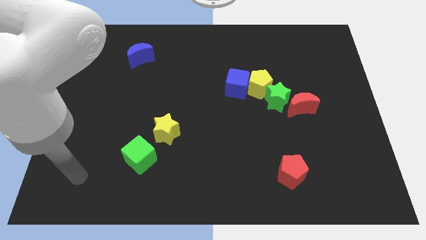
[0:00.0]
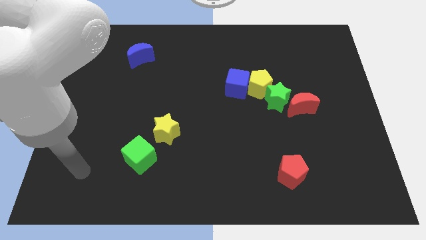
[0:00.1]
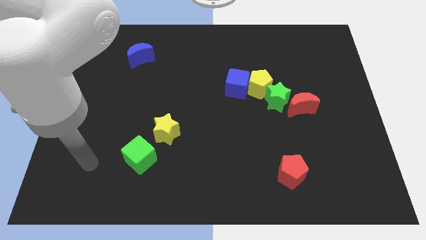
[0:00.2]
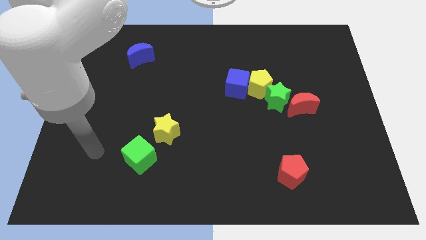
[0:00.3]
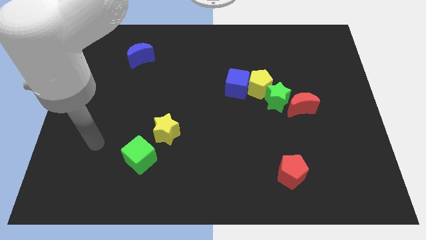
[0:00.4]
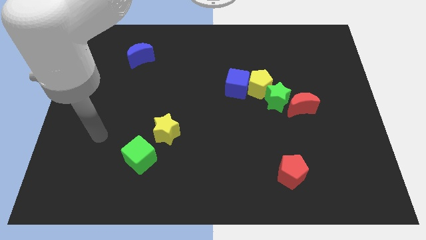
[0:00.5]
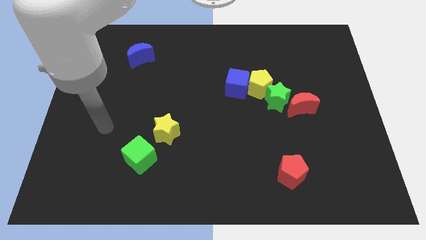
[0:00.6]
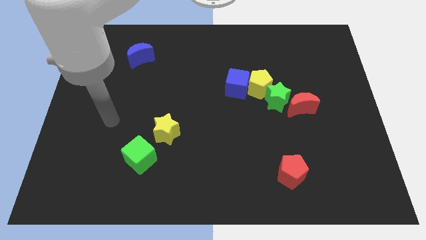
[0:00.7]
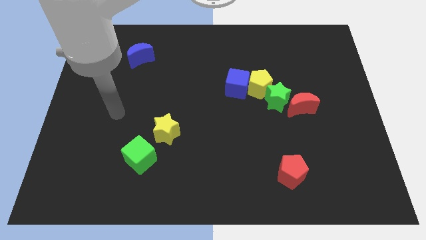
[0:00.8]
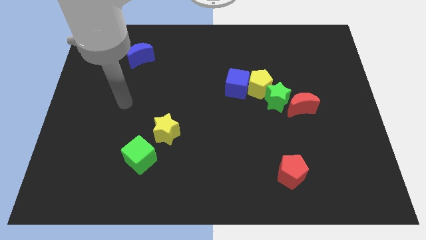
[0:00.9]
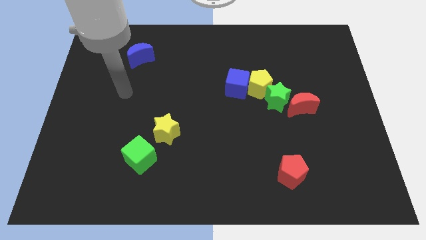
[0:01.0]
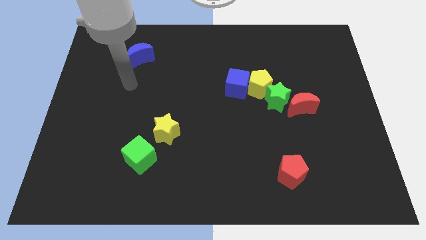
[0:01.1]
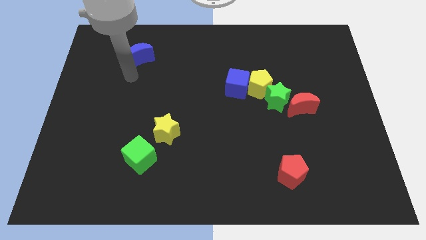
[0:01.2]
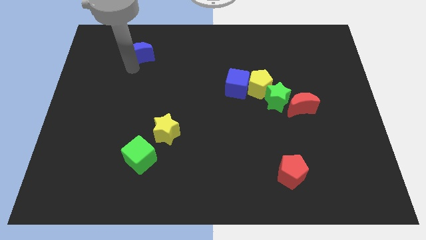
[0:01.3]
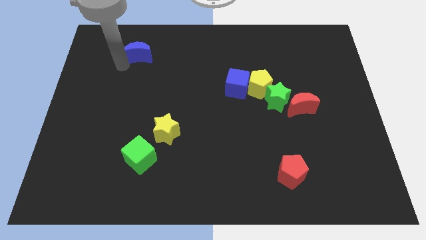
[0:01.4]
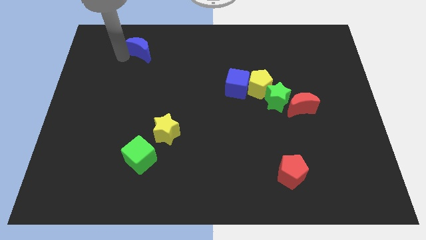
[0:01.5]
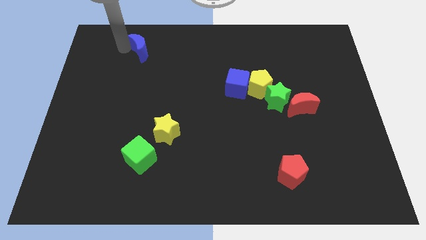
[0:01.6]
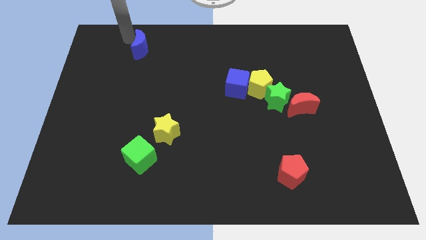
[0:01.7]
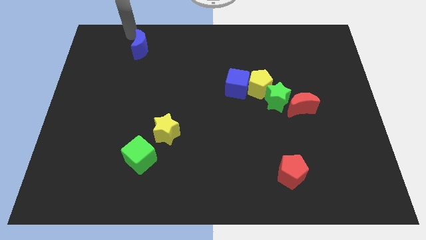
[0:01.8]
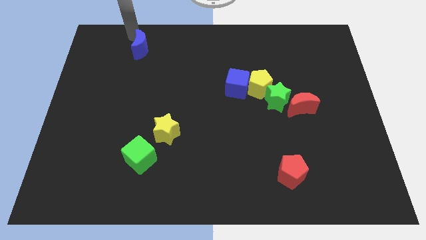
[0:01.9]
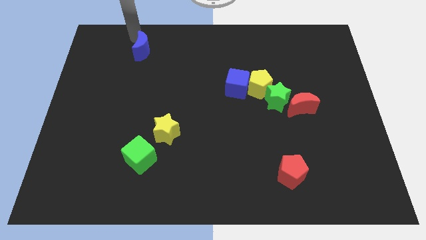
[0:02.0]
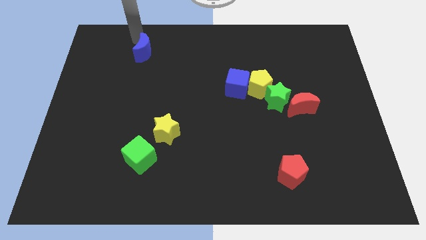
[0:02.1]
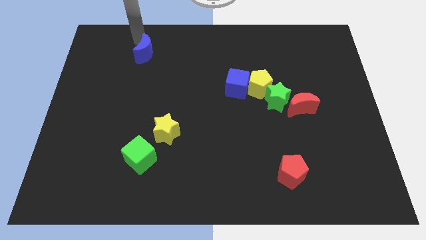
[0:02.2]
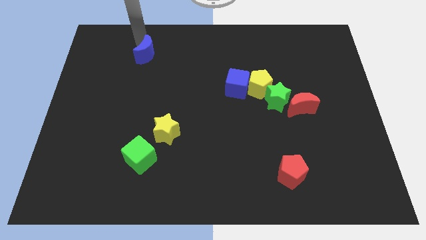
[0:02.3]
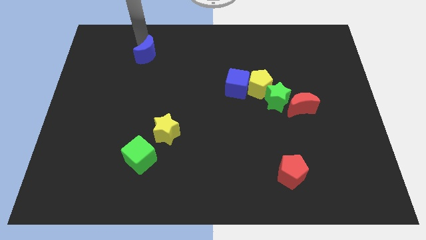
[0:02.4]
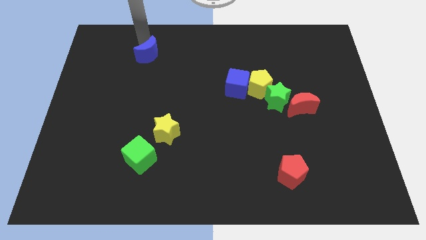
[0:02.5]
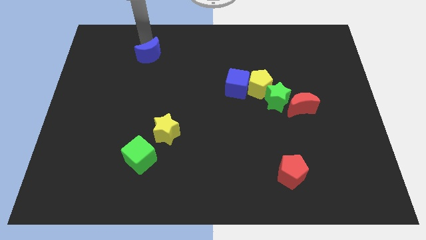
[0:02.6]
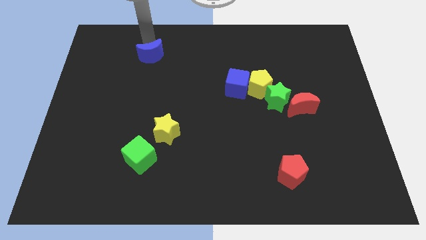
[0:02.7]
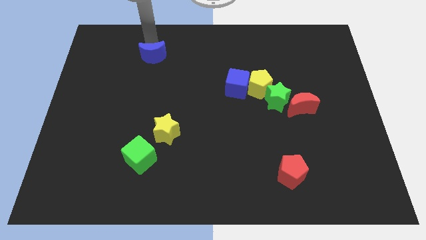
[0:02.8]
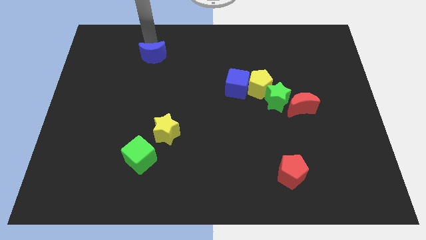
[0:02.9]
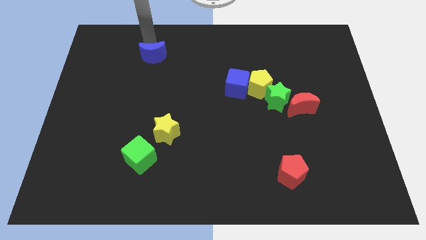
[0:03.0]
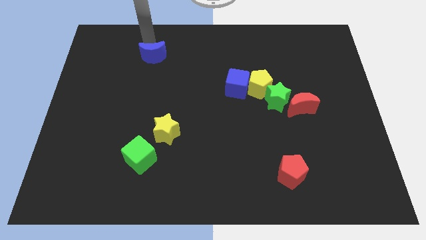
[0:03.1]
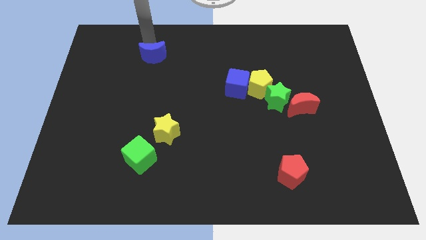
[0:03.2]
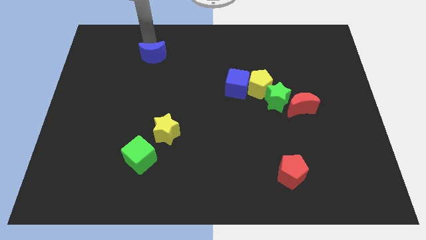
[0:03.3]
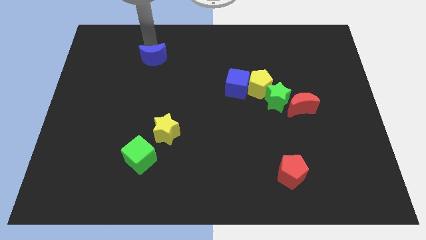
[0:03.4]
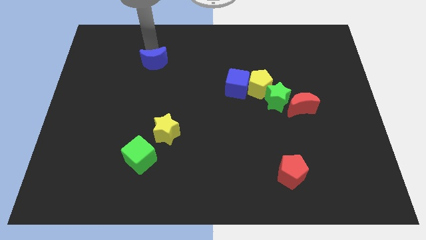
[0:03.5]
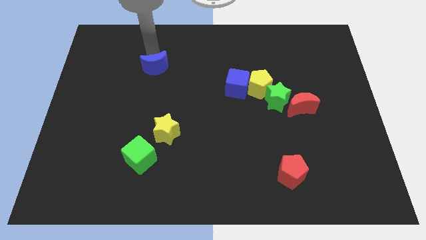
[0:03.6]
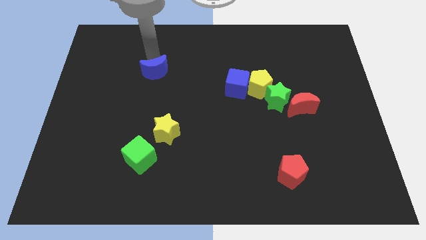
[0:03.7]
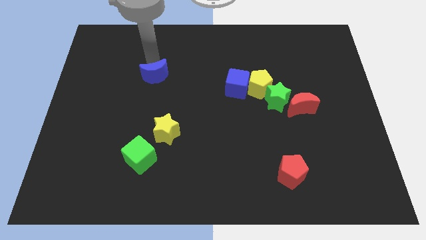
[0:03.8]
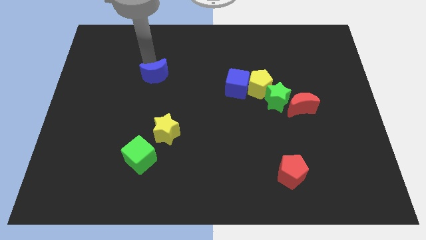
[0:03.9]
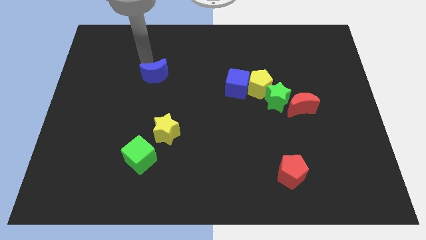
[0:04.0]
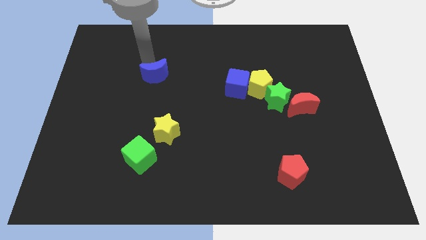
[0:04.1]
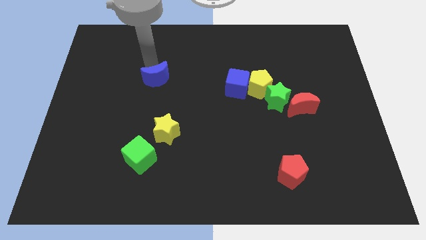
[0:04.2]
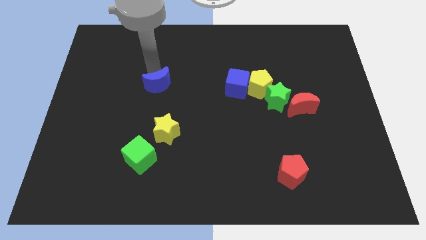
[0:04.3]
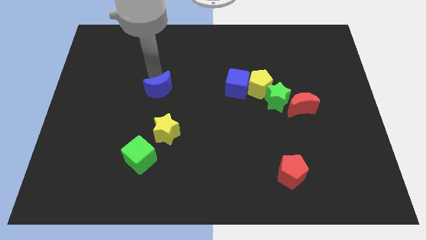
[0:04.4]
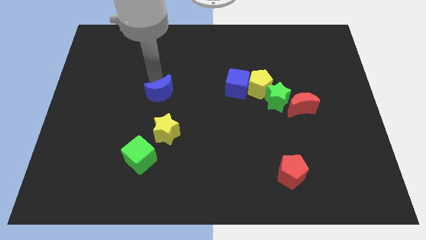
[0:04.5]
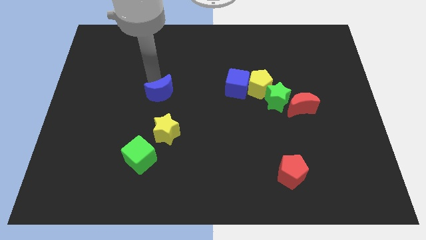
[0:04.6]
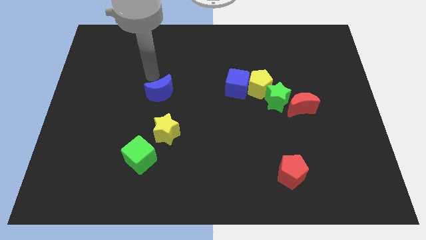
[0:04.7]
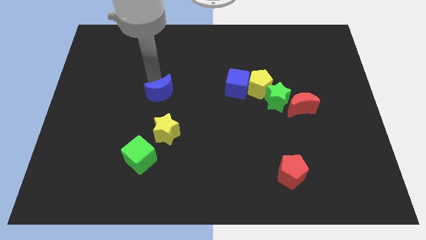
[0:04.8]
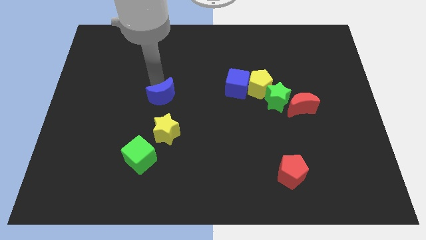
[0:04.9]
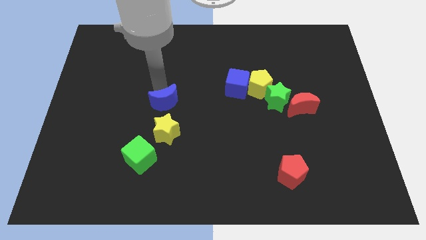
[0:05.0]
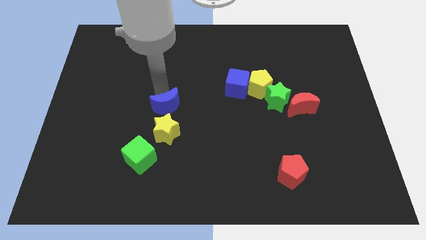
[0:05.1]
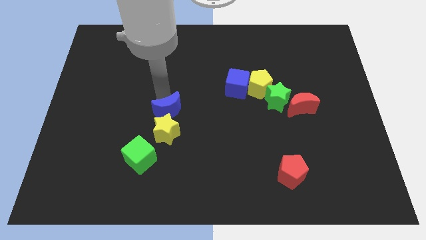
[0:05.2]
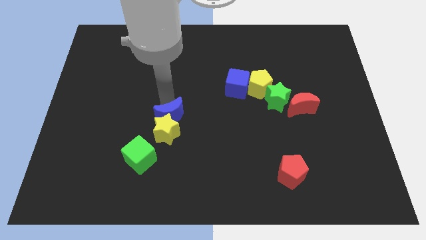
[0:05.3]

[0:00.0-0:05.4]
put the blue moon close to the yellow star

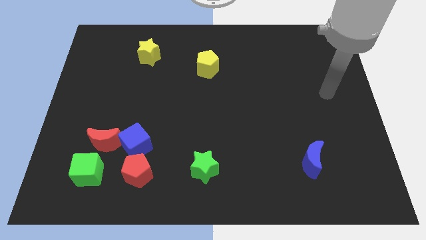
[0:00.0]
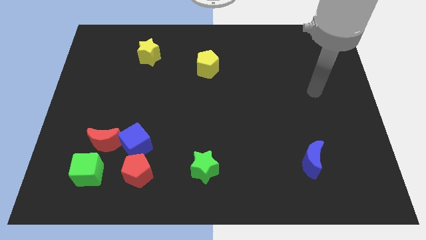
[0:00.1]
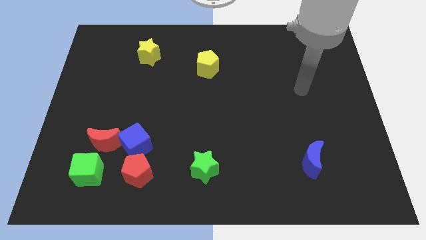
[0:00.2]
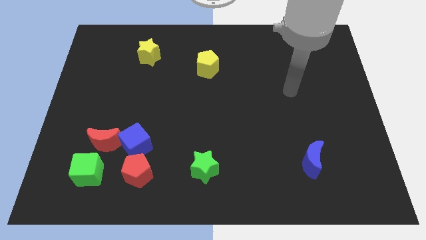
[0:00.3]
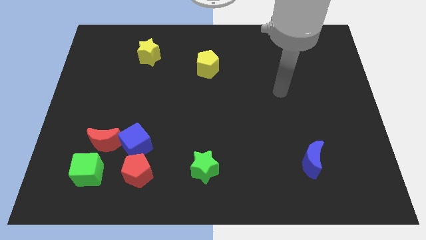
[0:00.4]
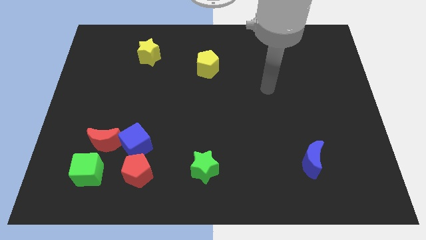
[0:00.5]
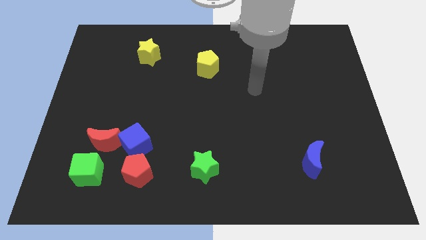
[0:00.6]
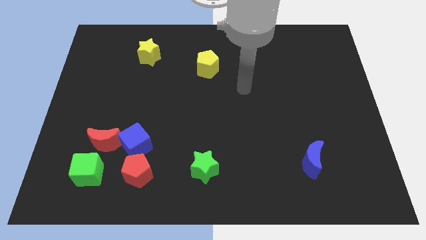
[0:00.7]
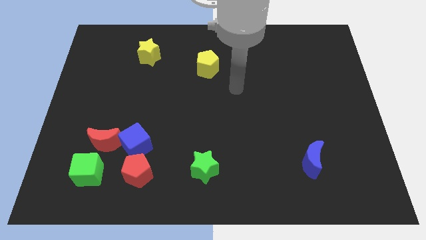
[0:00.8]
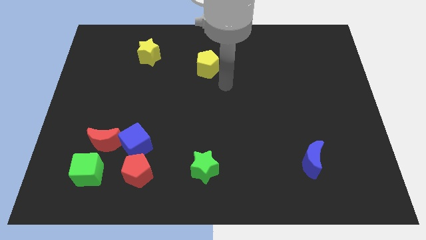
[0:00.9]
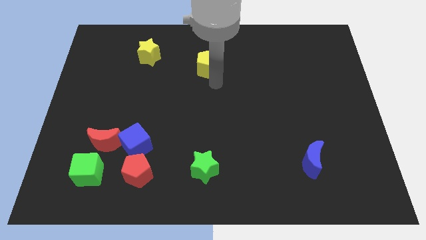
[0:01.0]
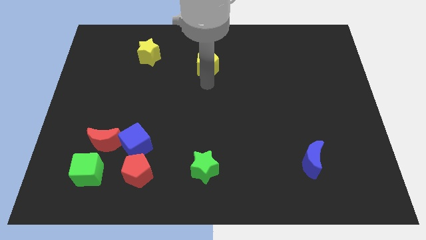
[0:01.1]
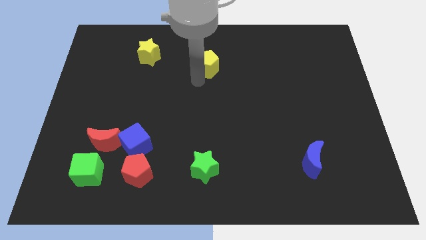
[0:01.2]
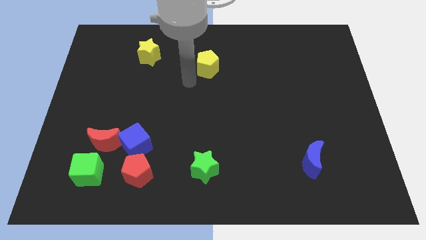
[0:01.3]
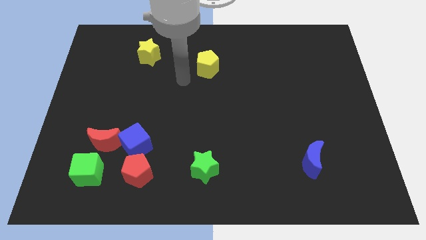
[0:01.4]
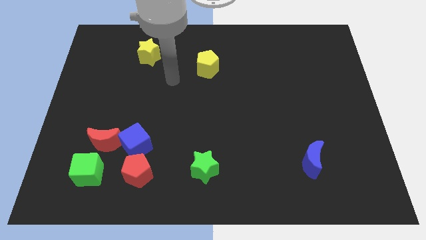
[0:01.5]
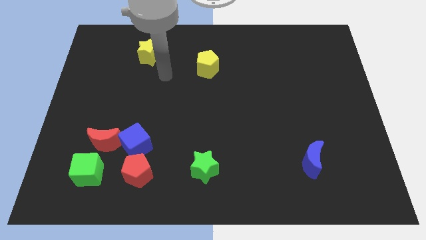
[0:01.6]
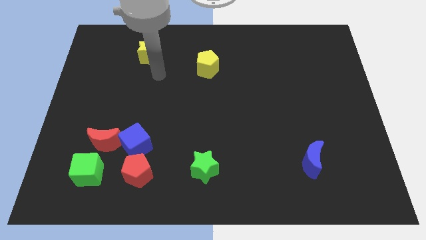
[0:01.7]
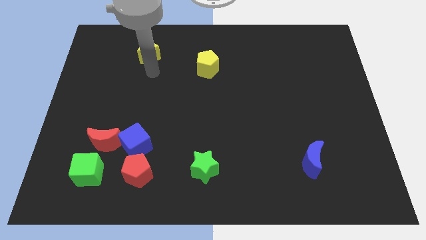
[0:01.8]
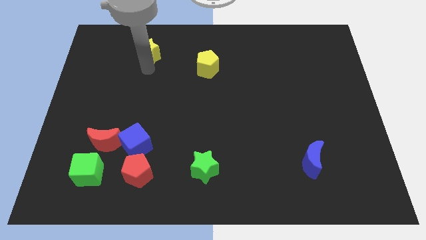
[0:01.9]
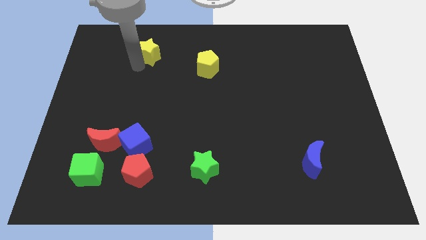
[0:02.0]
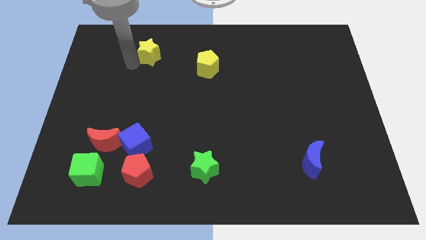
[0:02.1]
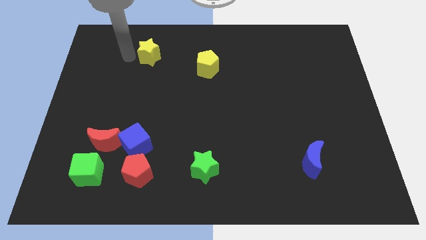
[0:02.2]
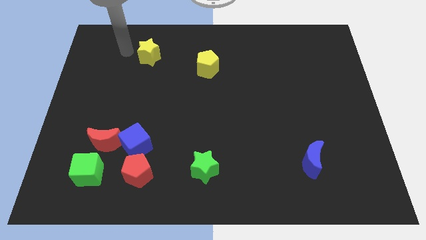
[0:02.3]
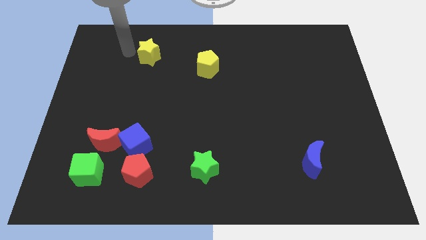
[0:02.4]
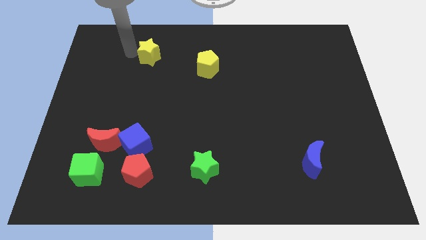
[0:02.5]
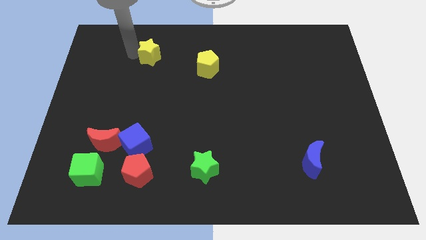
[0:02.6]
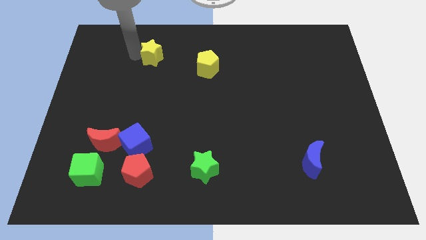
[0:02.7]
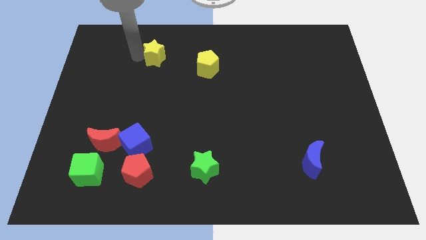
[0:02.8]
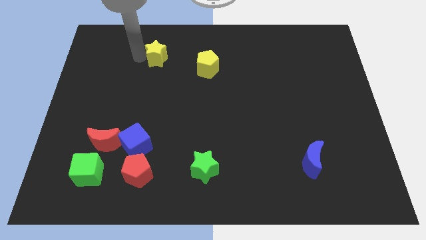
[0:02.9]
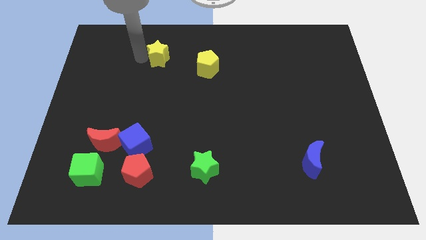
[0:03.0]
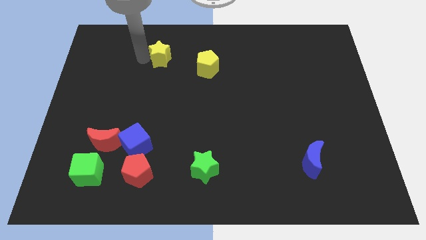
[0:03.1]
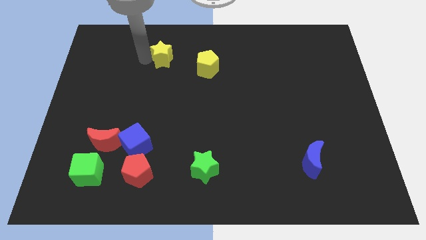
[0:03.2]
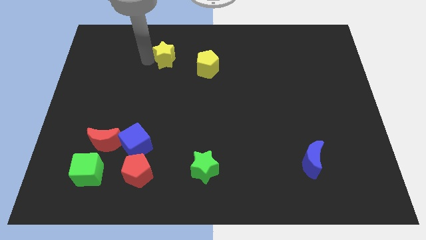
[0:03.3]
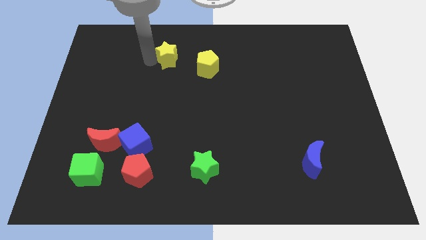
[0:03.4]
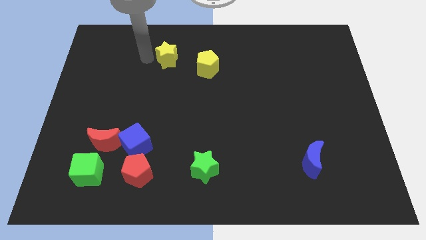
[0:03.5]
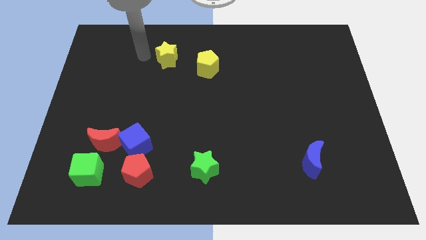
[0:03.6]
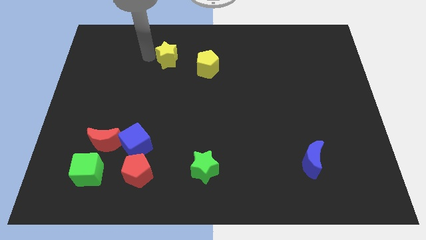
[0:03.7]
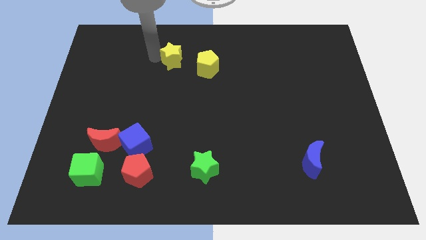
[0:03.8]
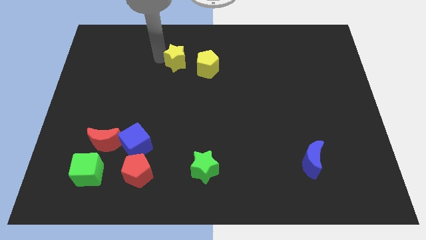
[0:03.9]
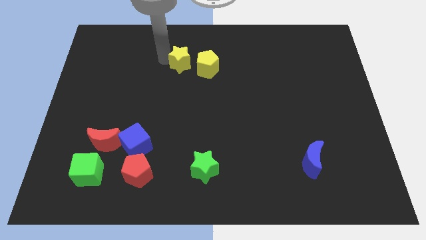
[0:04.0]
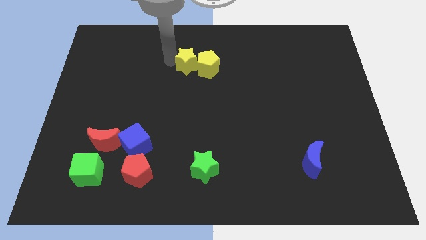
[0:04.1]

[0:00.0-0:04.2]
put the yellow star to the yellow pentagon
